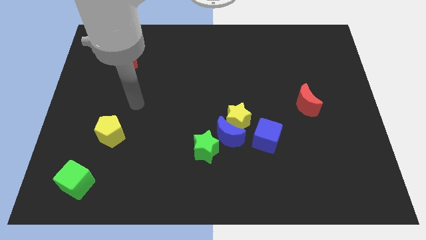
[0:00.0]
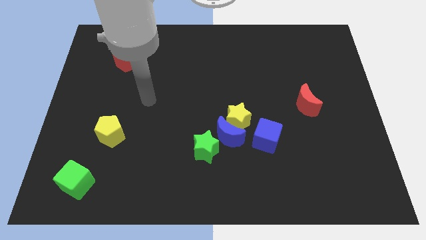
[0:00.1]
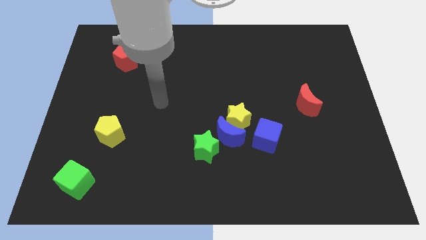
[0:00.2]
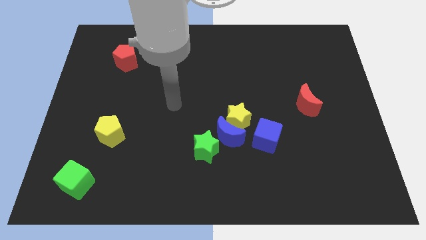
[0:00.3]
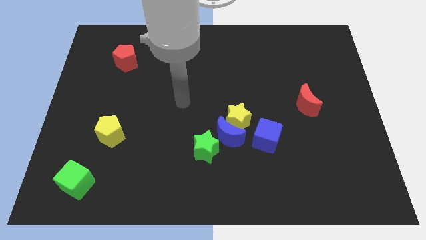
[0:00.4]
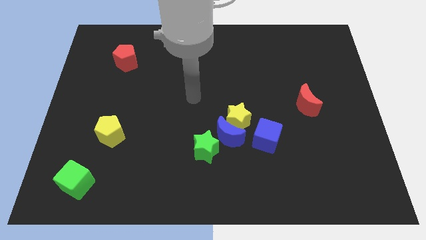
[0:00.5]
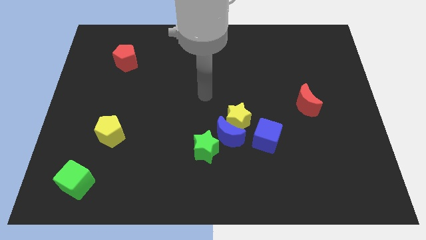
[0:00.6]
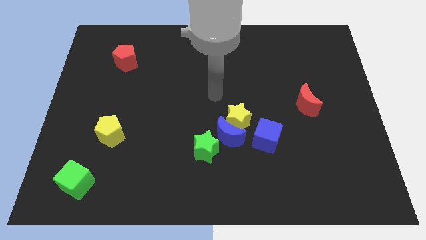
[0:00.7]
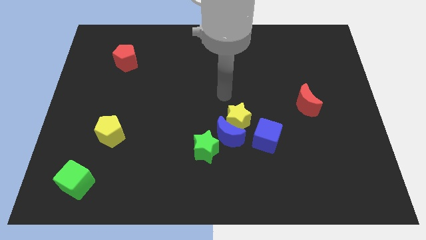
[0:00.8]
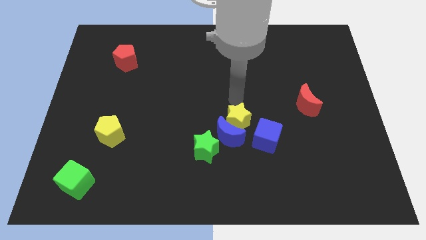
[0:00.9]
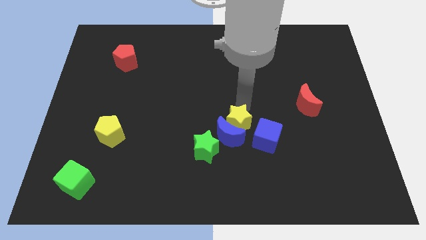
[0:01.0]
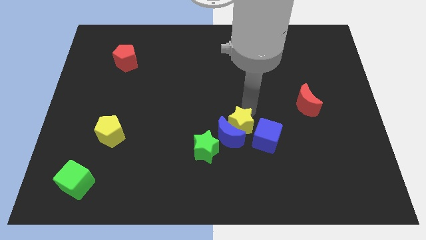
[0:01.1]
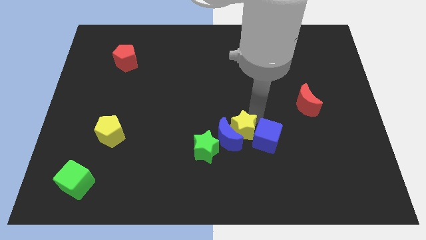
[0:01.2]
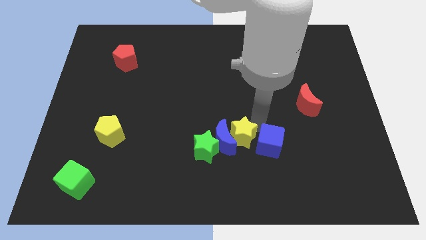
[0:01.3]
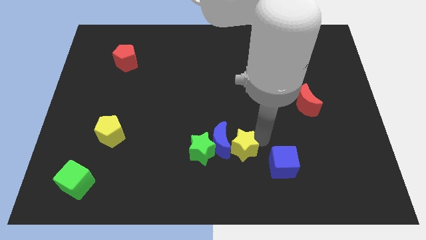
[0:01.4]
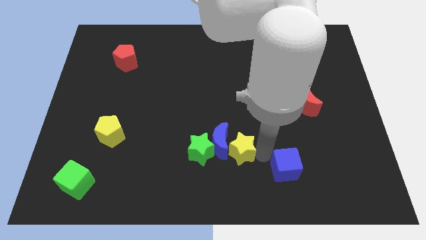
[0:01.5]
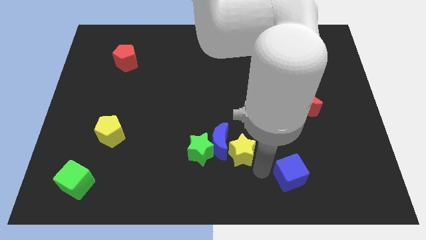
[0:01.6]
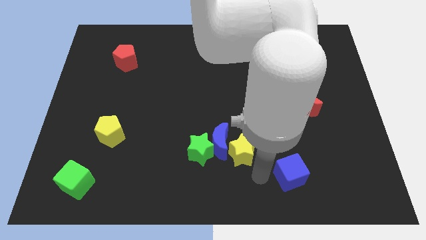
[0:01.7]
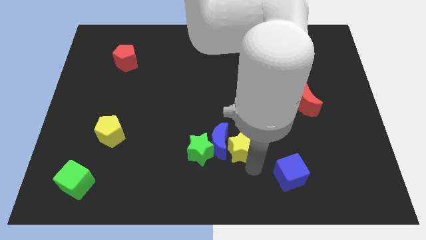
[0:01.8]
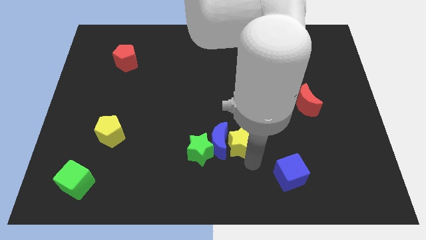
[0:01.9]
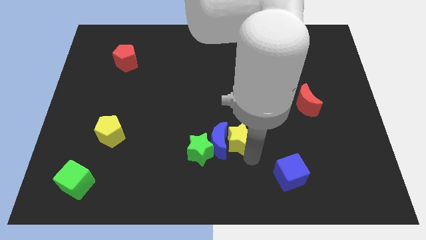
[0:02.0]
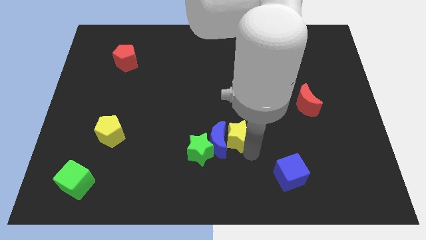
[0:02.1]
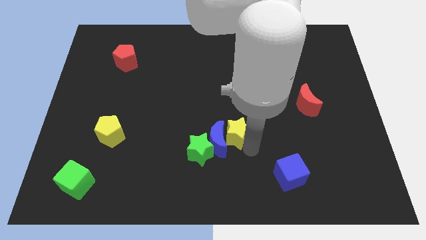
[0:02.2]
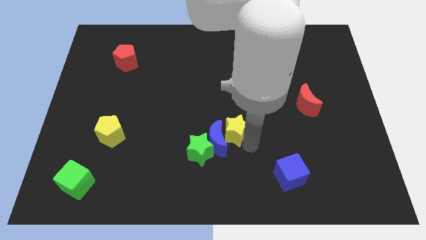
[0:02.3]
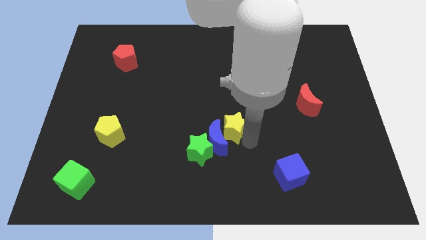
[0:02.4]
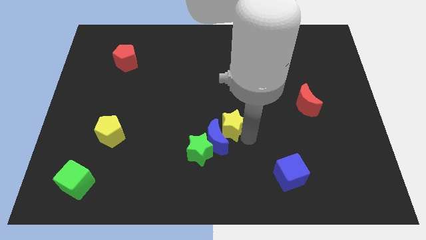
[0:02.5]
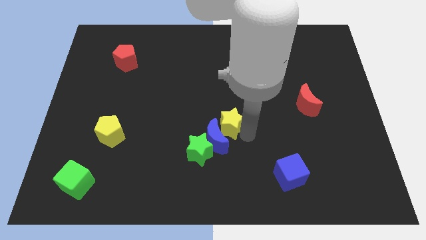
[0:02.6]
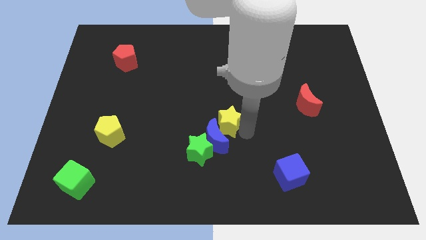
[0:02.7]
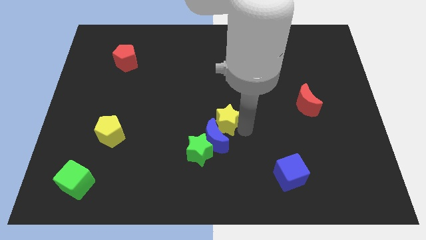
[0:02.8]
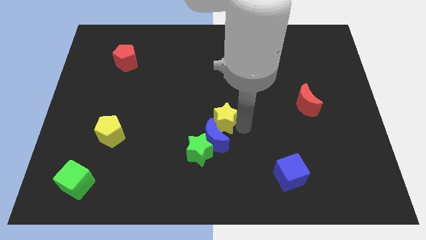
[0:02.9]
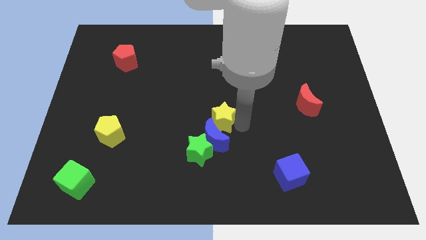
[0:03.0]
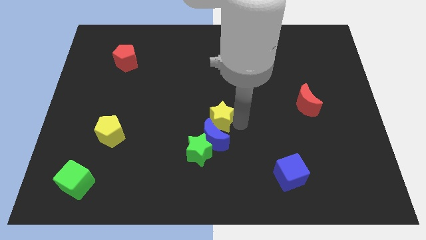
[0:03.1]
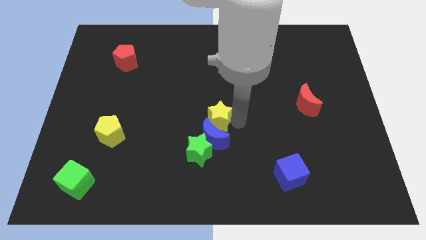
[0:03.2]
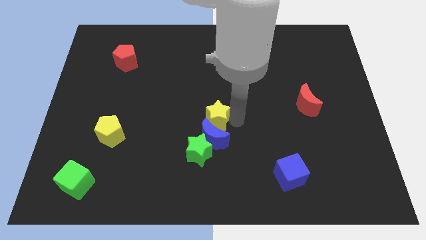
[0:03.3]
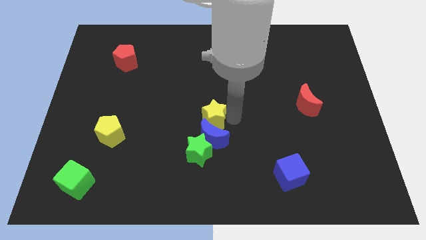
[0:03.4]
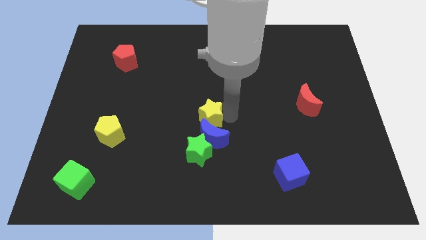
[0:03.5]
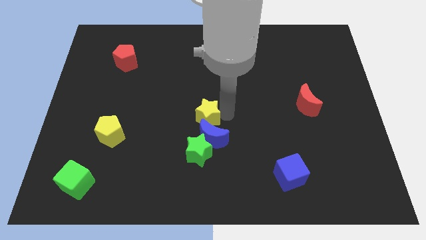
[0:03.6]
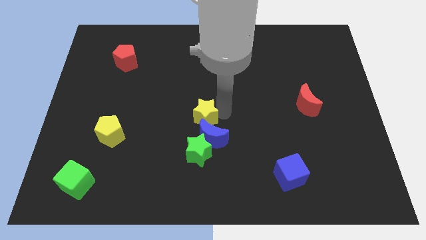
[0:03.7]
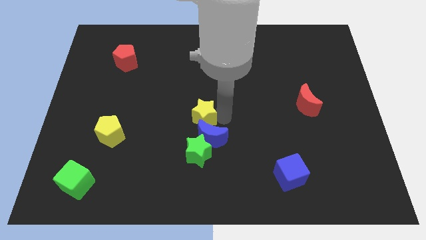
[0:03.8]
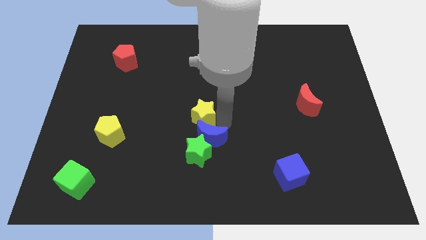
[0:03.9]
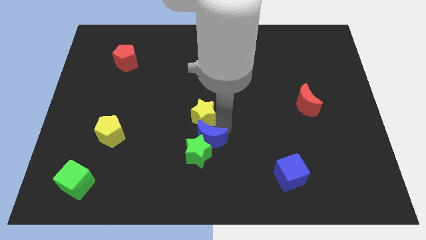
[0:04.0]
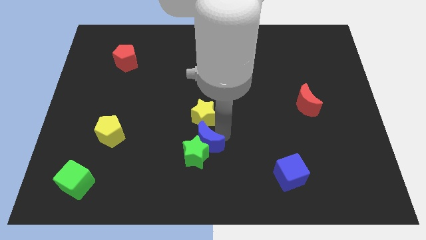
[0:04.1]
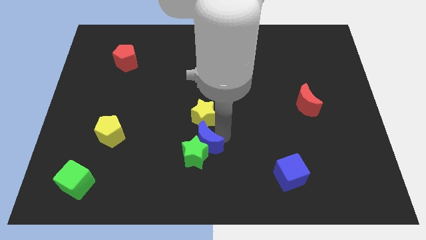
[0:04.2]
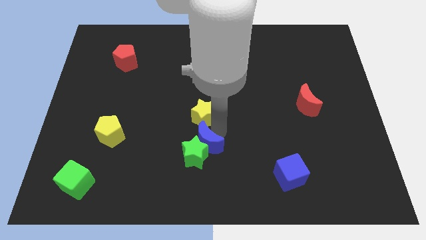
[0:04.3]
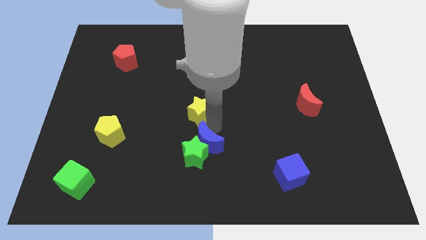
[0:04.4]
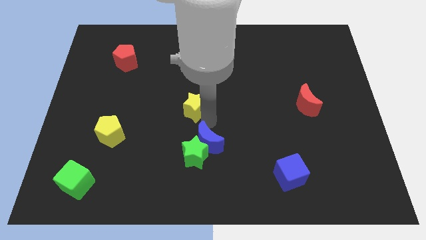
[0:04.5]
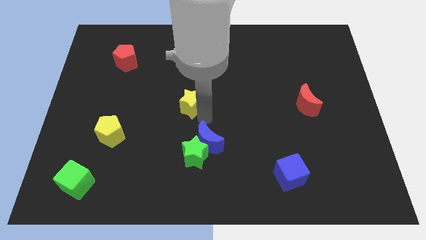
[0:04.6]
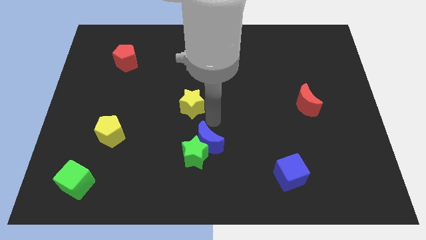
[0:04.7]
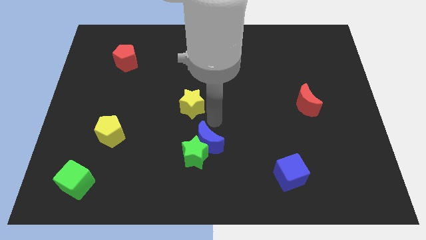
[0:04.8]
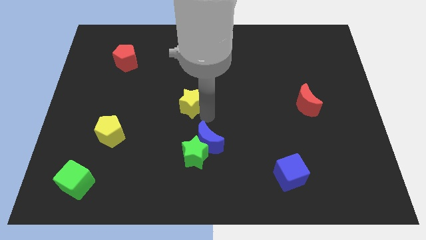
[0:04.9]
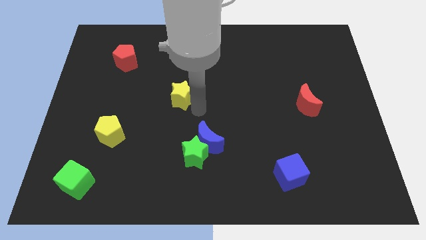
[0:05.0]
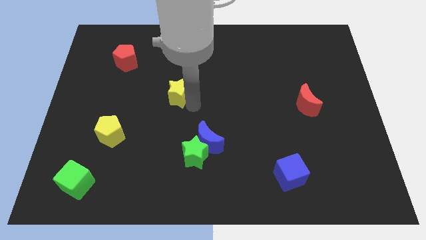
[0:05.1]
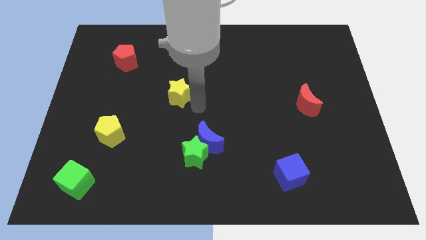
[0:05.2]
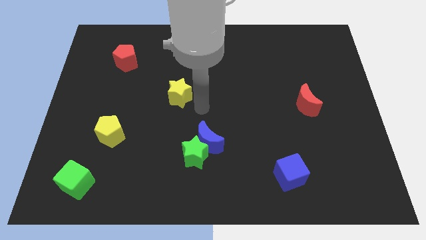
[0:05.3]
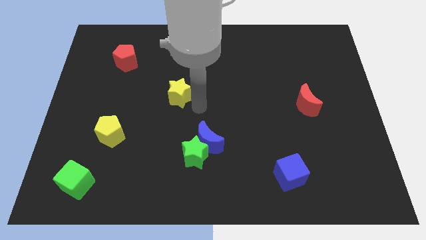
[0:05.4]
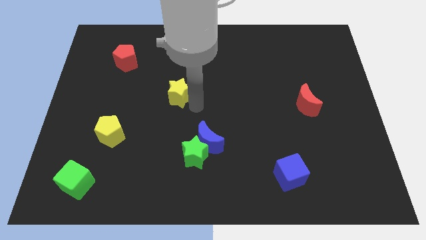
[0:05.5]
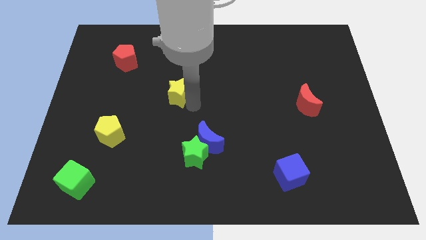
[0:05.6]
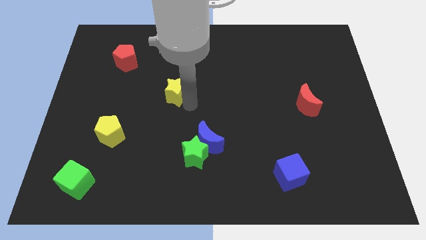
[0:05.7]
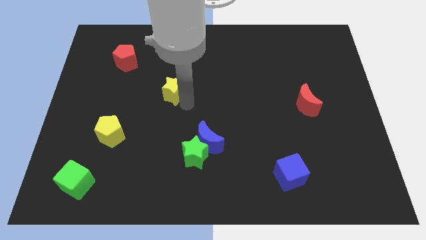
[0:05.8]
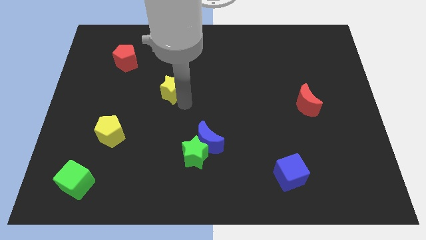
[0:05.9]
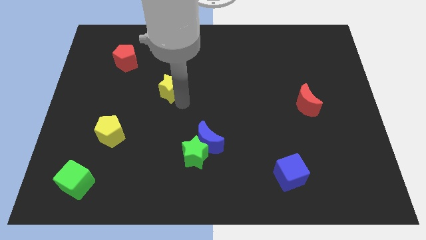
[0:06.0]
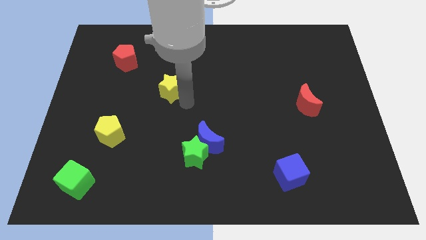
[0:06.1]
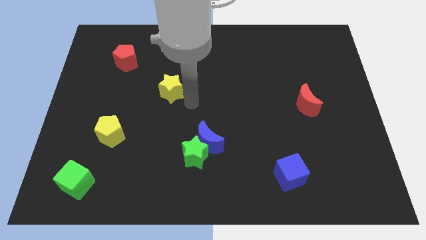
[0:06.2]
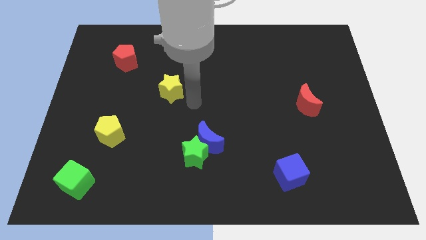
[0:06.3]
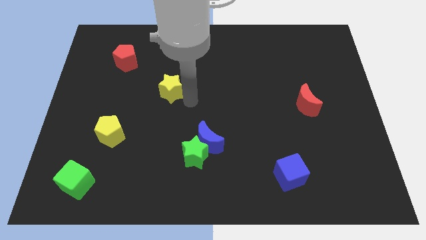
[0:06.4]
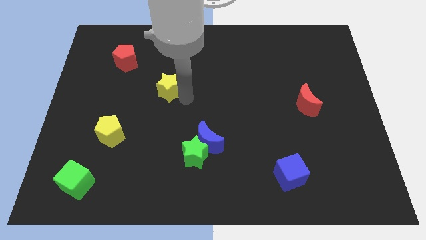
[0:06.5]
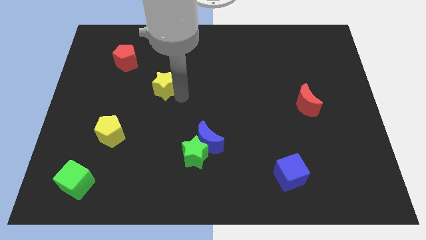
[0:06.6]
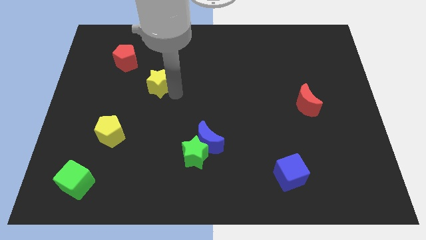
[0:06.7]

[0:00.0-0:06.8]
move the yellow star diagonally down and to the right of the red pentagon
